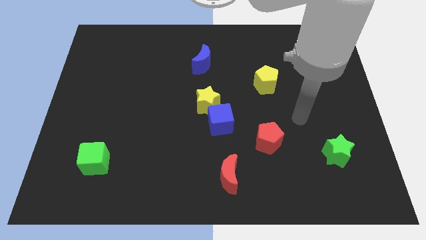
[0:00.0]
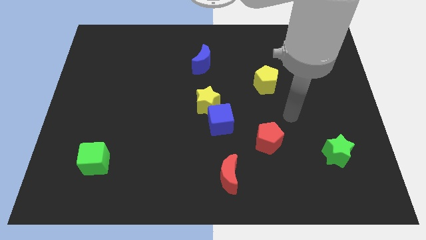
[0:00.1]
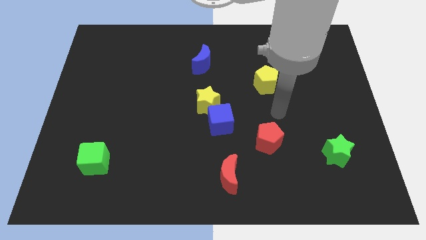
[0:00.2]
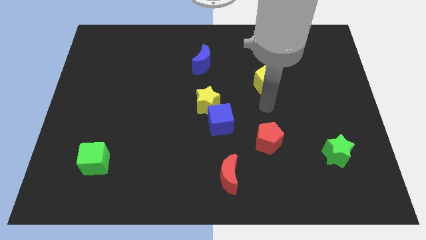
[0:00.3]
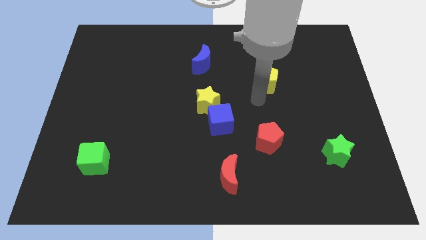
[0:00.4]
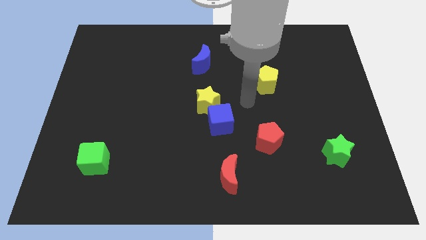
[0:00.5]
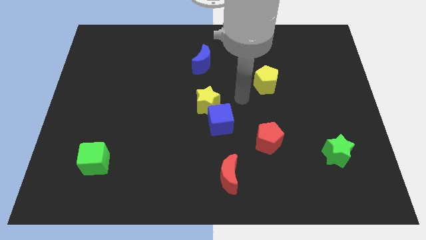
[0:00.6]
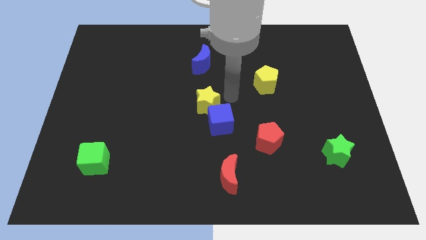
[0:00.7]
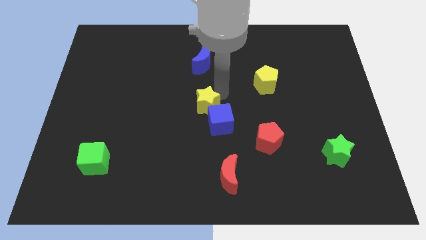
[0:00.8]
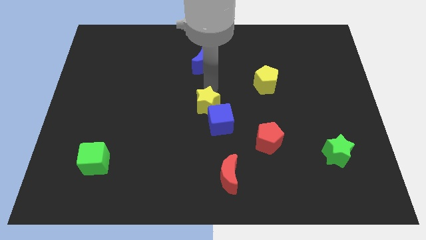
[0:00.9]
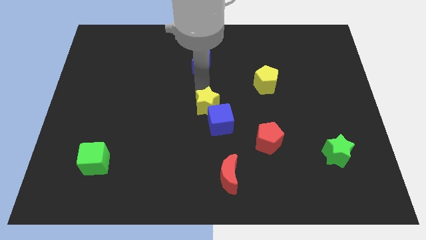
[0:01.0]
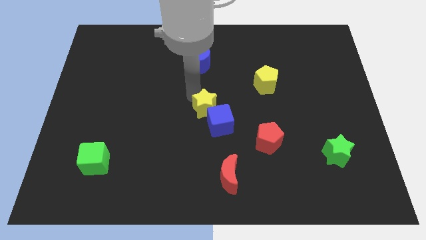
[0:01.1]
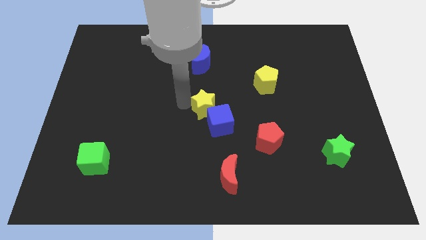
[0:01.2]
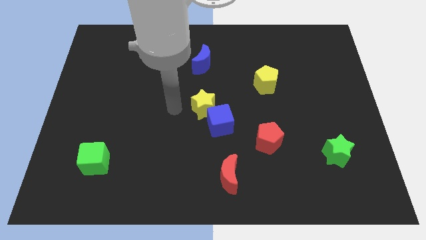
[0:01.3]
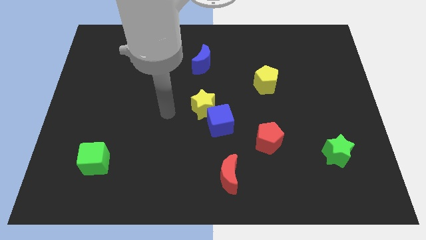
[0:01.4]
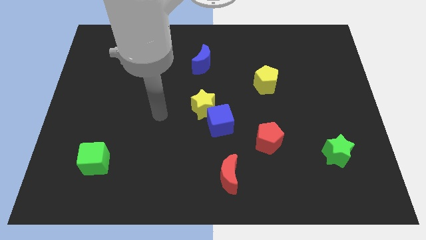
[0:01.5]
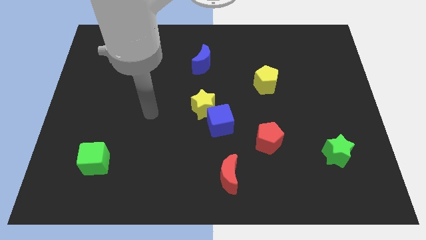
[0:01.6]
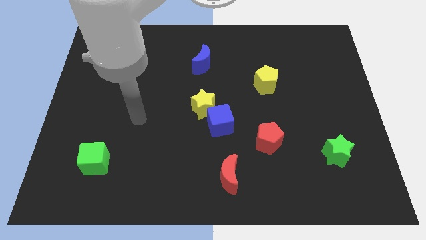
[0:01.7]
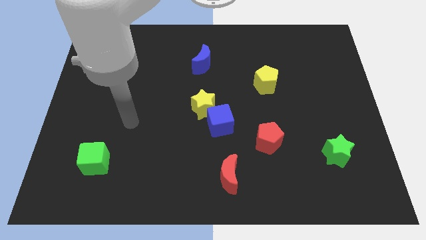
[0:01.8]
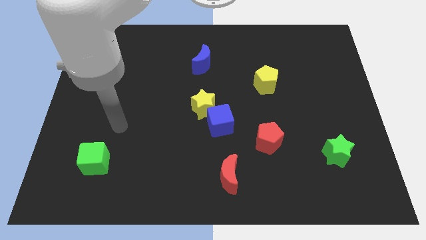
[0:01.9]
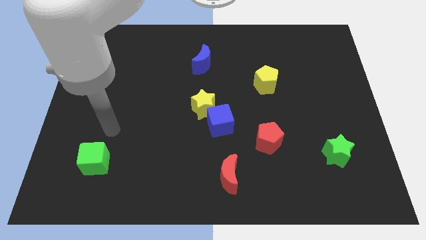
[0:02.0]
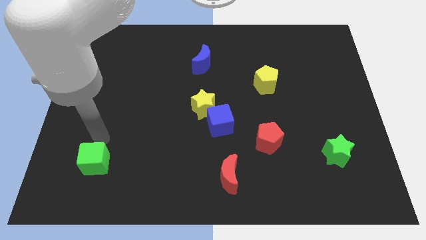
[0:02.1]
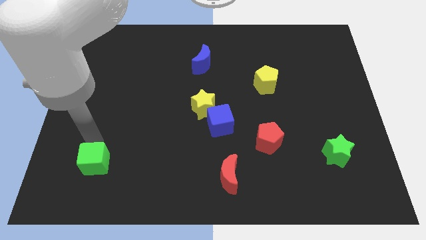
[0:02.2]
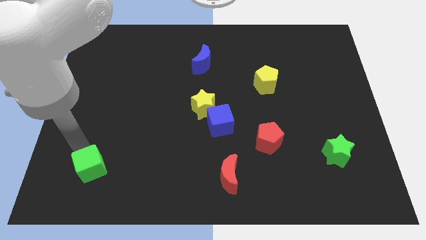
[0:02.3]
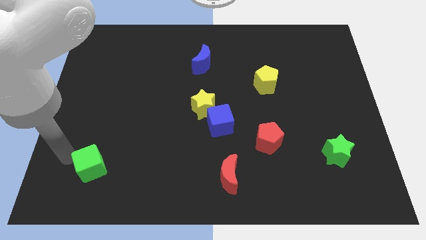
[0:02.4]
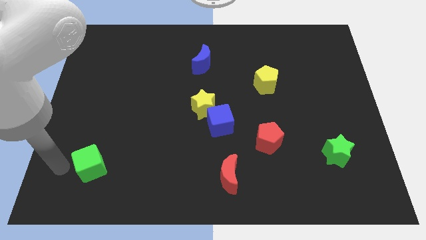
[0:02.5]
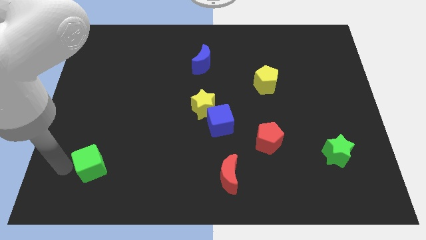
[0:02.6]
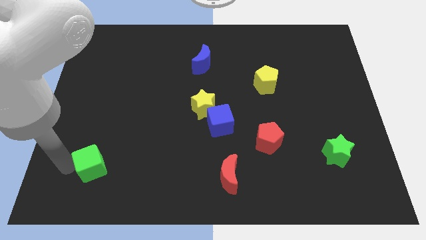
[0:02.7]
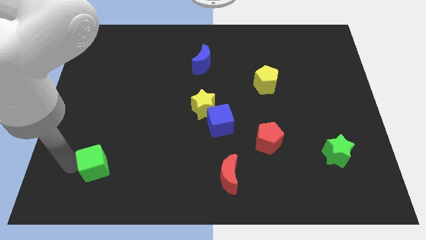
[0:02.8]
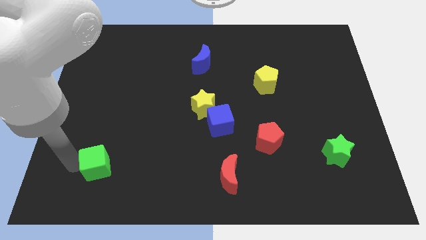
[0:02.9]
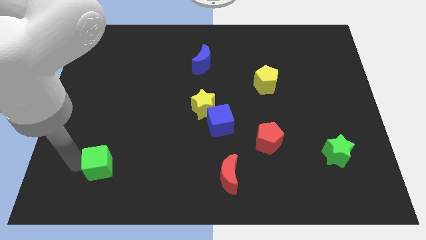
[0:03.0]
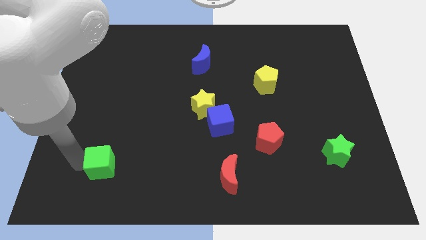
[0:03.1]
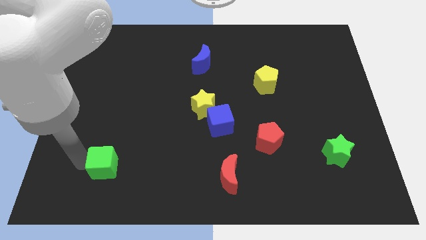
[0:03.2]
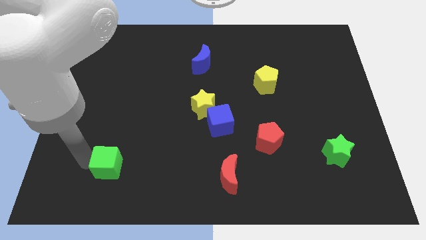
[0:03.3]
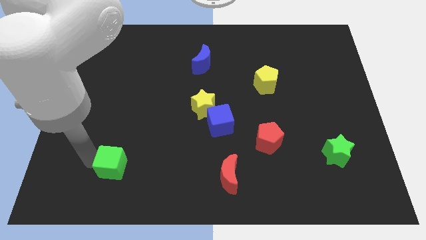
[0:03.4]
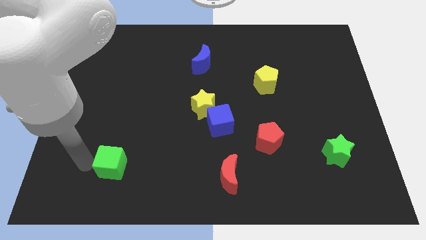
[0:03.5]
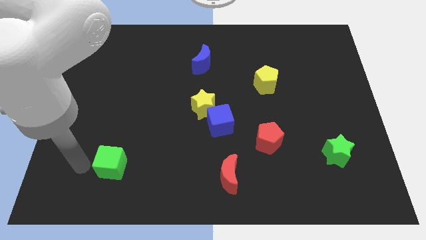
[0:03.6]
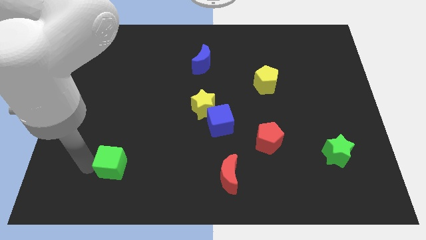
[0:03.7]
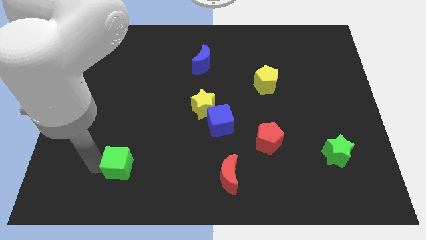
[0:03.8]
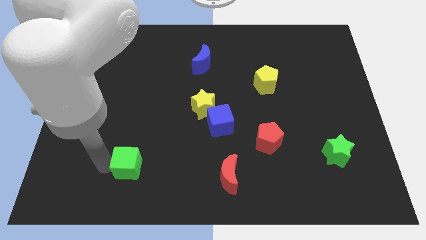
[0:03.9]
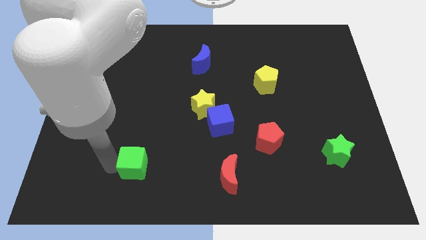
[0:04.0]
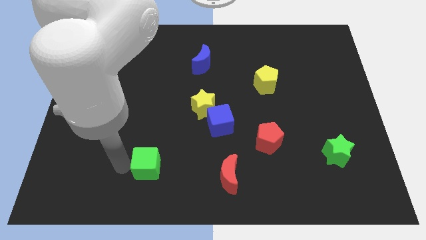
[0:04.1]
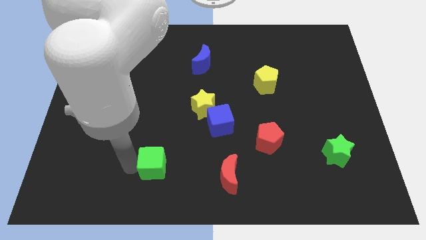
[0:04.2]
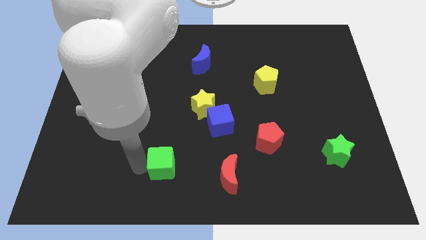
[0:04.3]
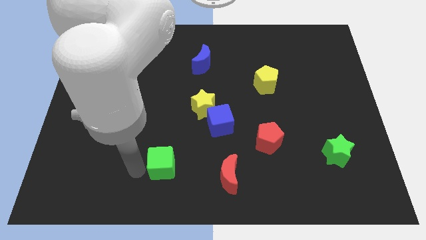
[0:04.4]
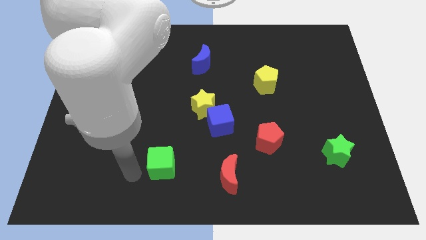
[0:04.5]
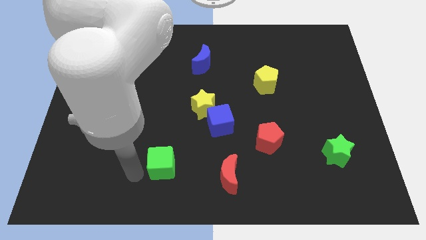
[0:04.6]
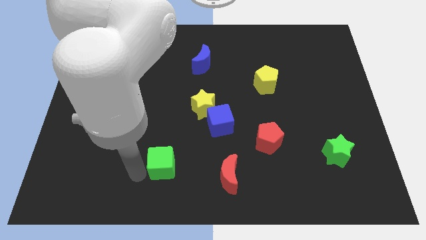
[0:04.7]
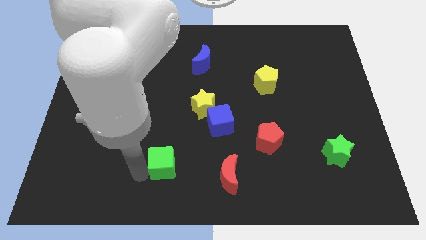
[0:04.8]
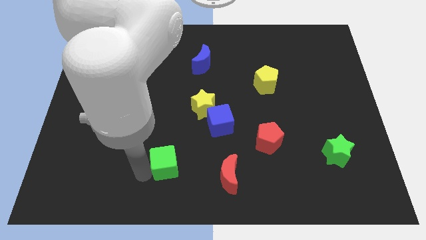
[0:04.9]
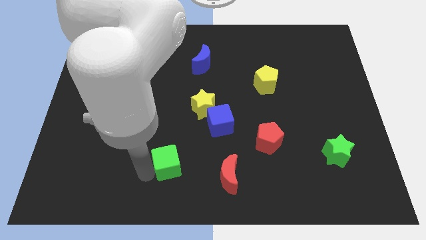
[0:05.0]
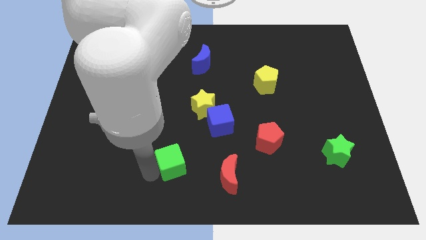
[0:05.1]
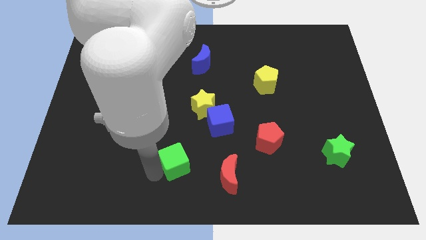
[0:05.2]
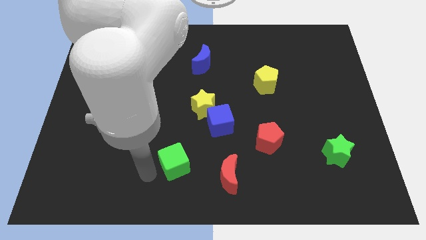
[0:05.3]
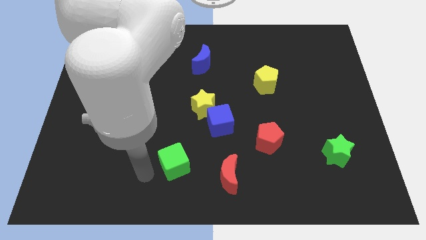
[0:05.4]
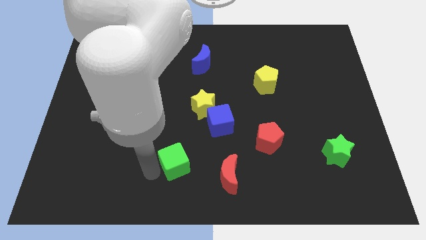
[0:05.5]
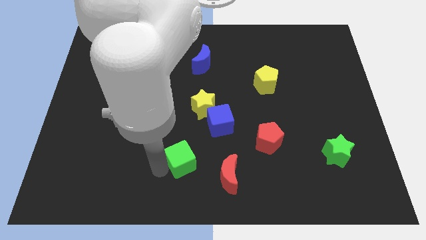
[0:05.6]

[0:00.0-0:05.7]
push the green cube diagonally up and to the left of the red moon

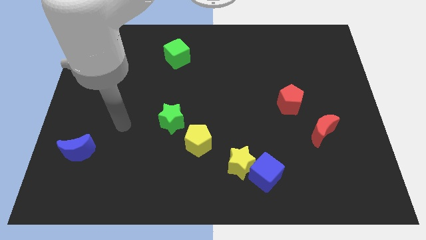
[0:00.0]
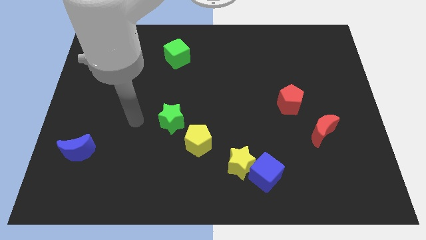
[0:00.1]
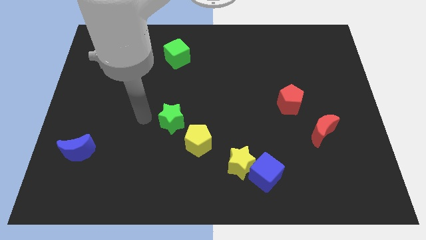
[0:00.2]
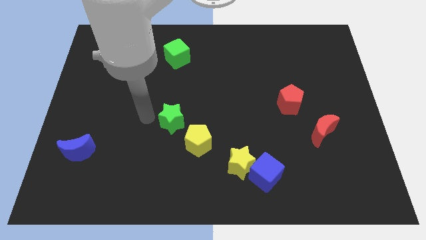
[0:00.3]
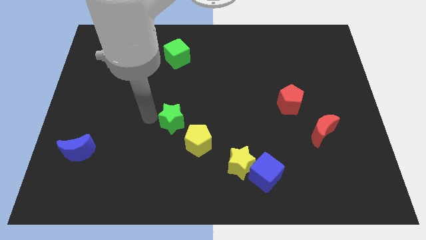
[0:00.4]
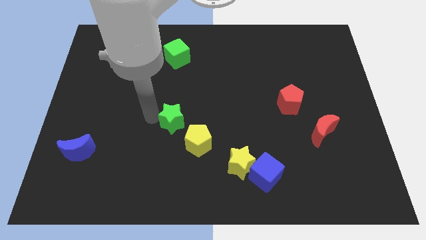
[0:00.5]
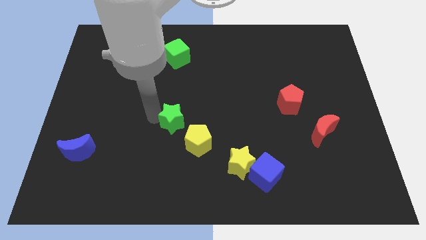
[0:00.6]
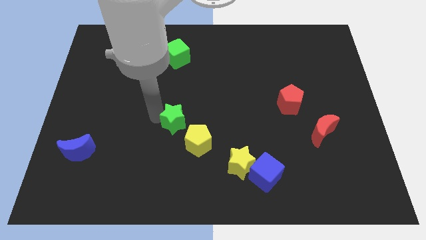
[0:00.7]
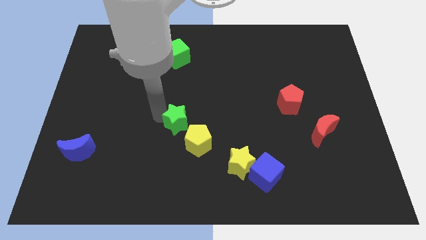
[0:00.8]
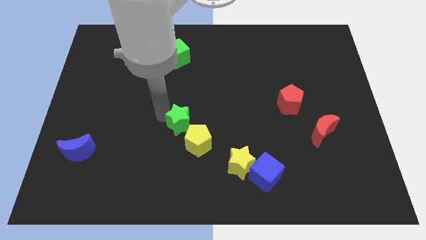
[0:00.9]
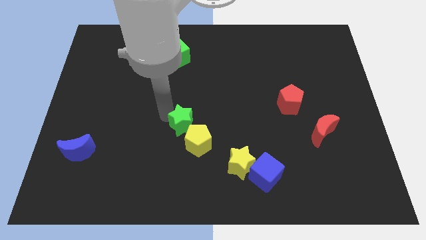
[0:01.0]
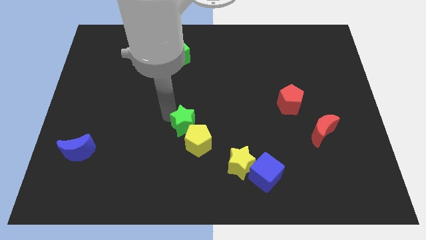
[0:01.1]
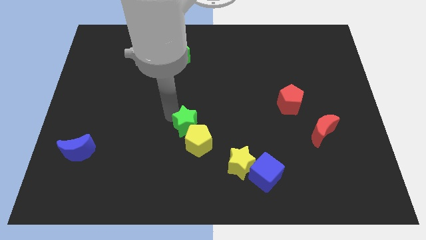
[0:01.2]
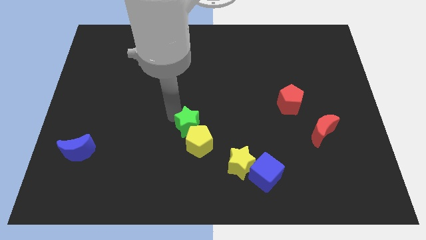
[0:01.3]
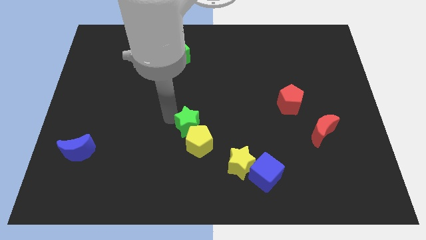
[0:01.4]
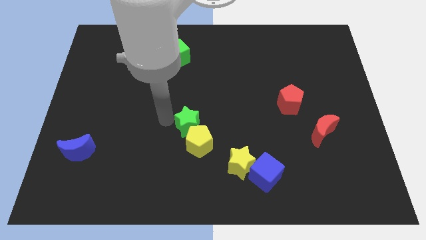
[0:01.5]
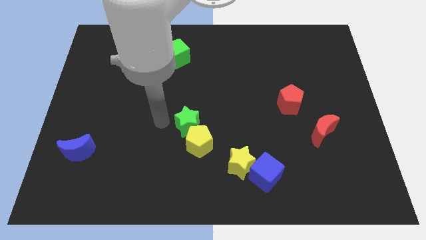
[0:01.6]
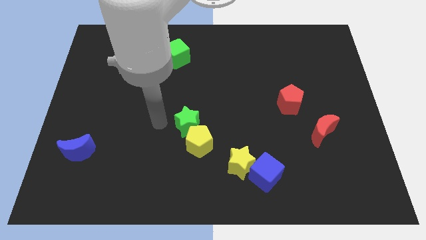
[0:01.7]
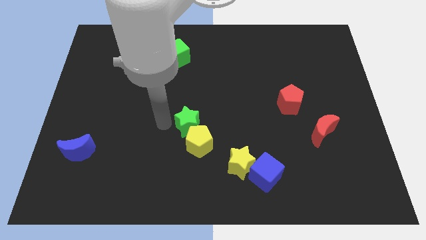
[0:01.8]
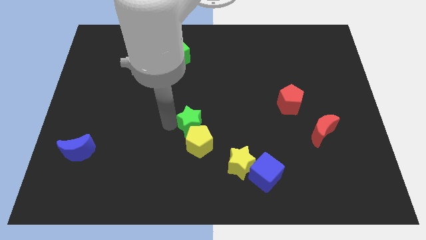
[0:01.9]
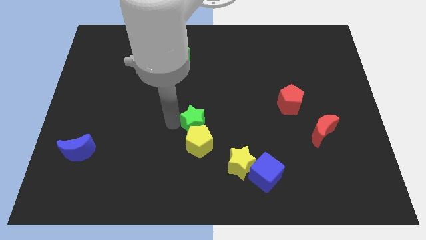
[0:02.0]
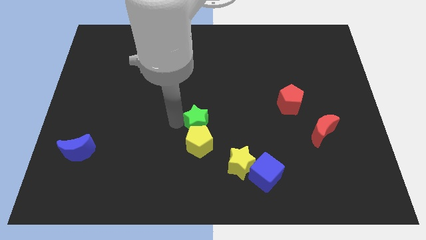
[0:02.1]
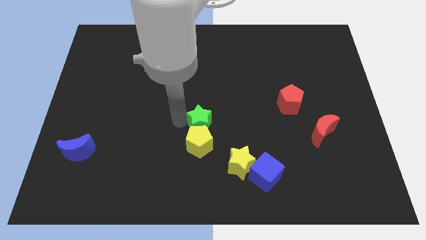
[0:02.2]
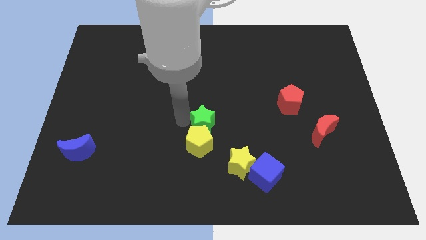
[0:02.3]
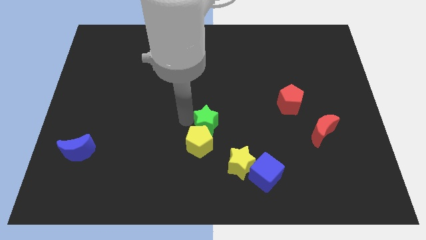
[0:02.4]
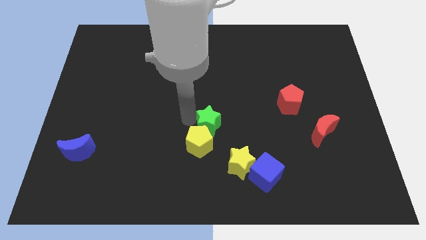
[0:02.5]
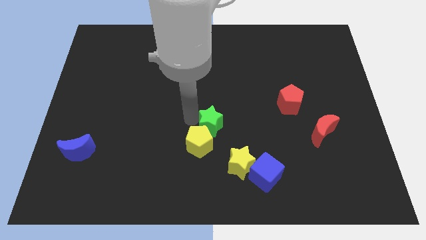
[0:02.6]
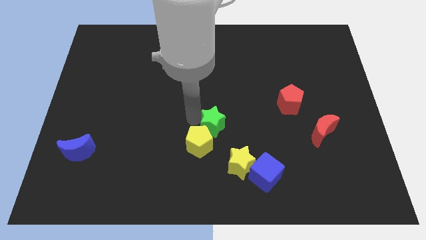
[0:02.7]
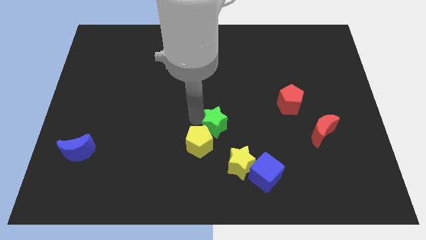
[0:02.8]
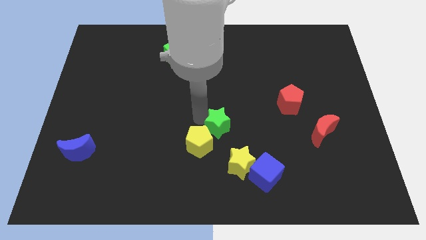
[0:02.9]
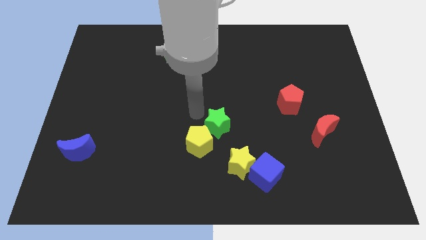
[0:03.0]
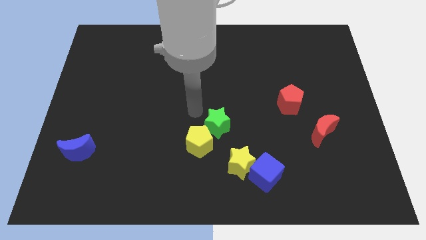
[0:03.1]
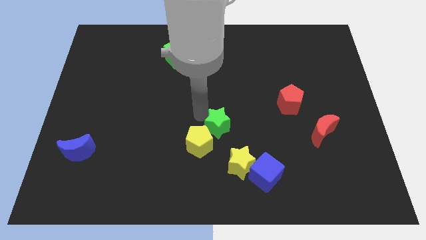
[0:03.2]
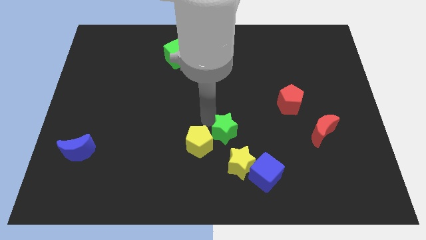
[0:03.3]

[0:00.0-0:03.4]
move the green star just right of the yellow pentagon
